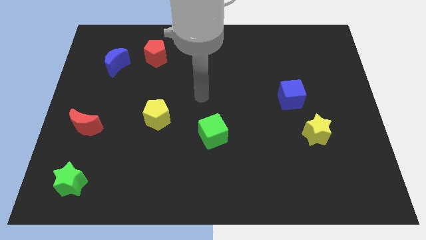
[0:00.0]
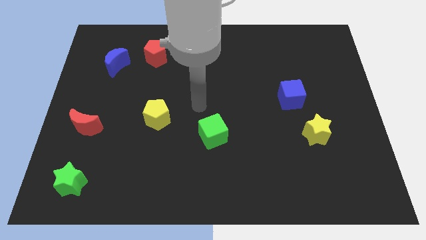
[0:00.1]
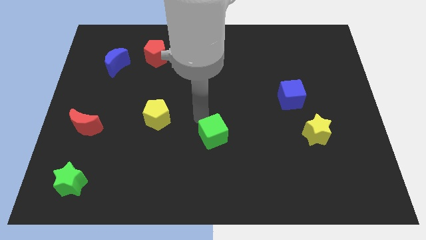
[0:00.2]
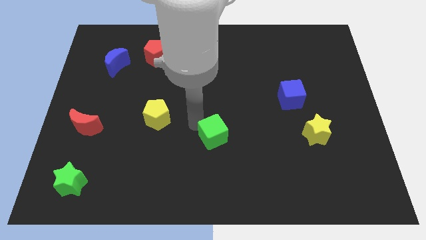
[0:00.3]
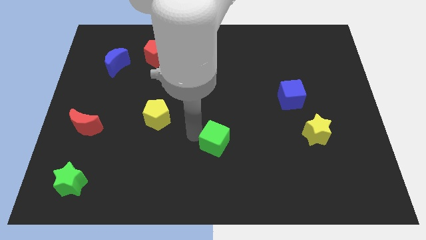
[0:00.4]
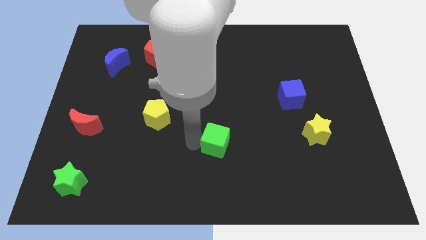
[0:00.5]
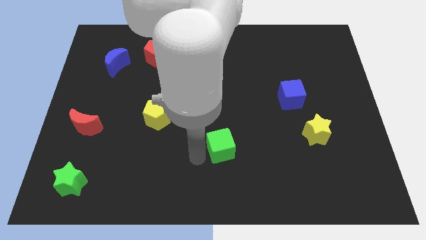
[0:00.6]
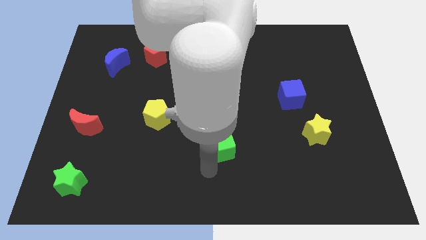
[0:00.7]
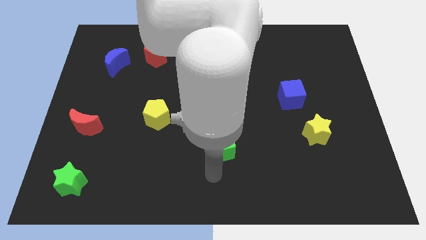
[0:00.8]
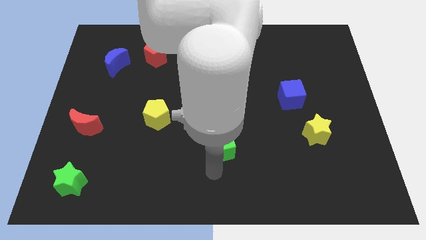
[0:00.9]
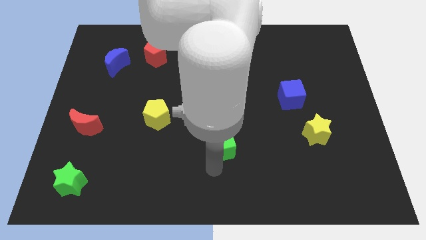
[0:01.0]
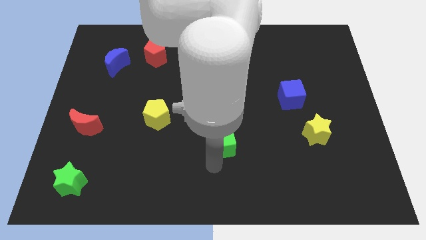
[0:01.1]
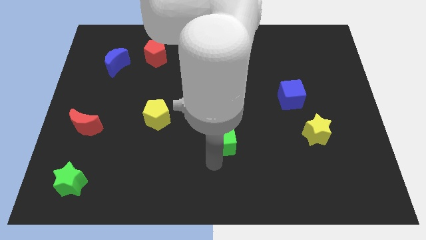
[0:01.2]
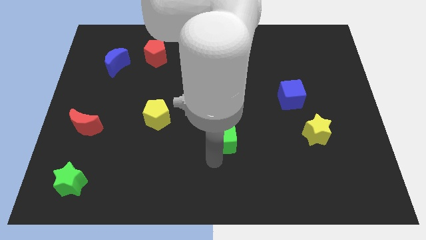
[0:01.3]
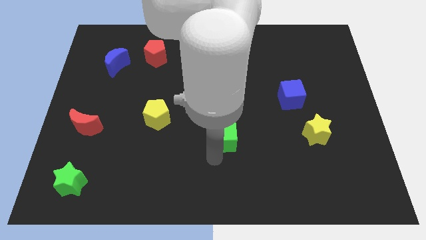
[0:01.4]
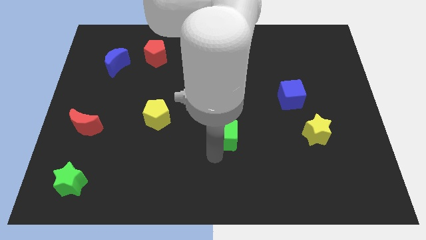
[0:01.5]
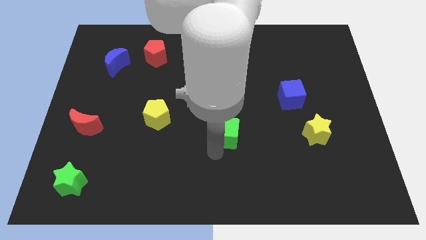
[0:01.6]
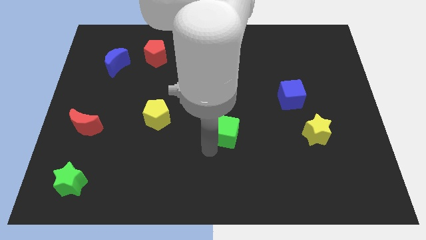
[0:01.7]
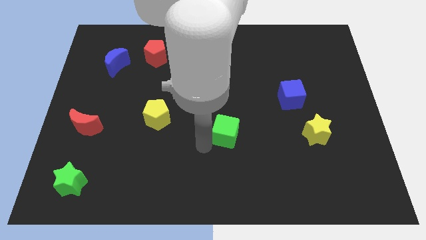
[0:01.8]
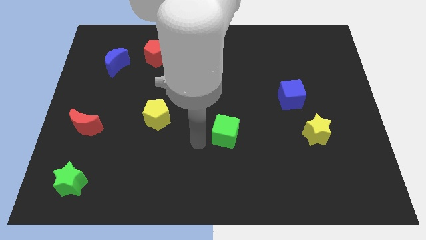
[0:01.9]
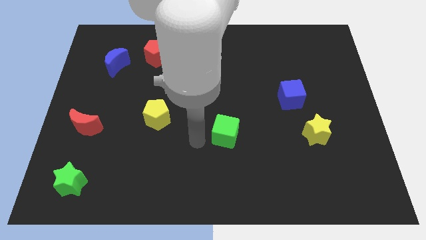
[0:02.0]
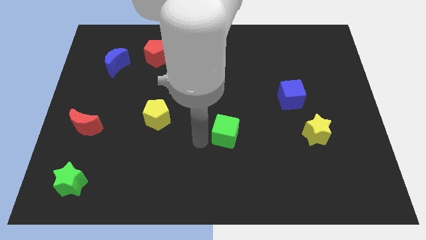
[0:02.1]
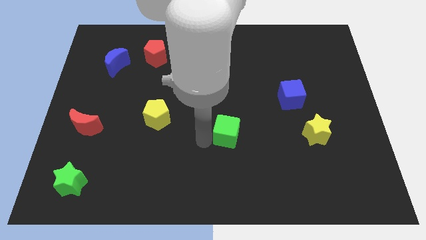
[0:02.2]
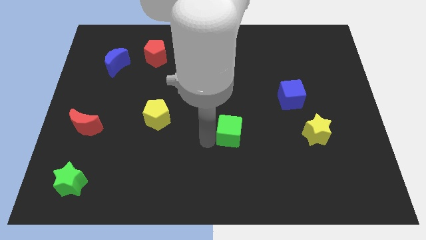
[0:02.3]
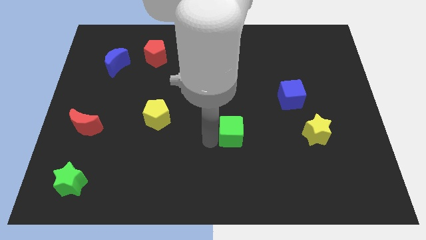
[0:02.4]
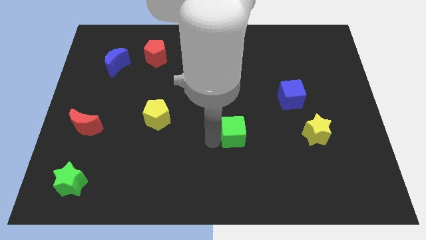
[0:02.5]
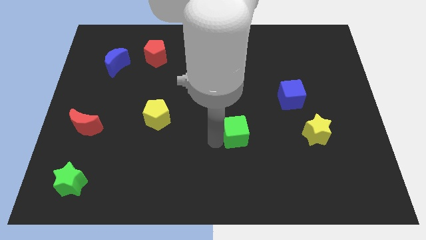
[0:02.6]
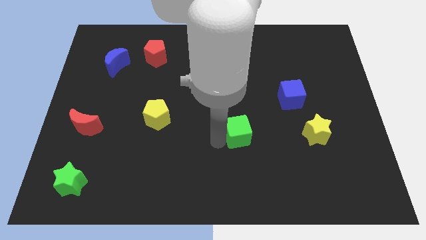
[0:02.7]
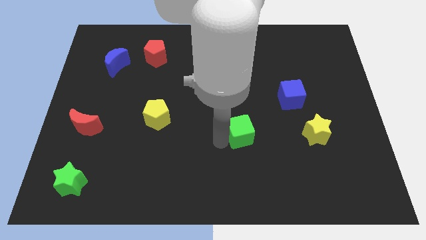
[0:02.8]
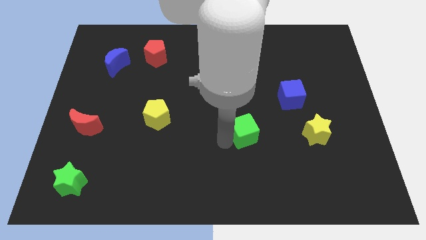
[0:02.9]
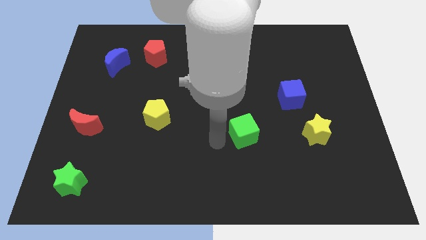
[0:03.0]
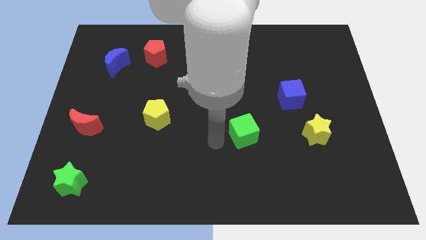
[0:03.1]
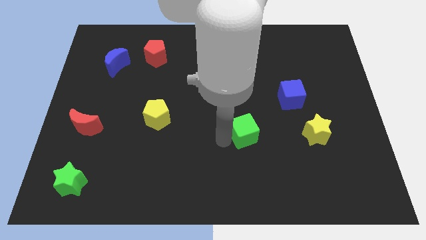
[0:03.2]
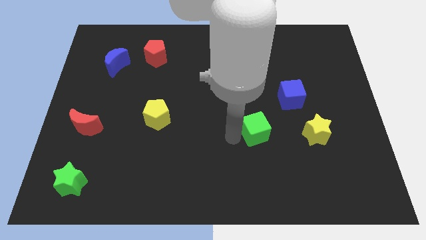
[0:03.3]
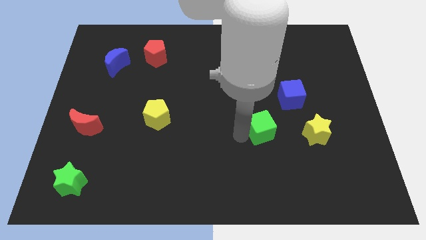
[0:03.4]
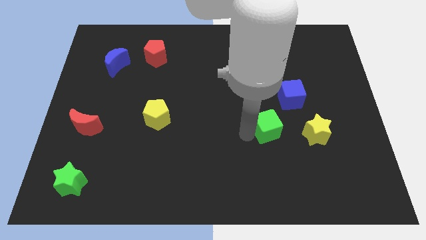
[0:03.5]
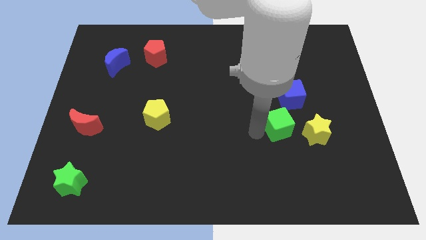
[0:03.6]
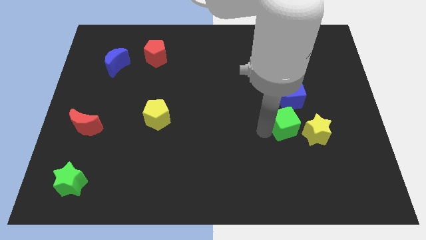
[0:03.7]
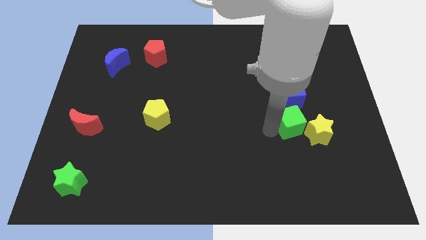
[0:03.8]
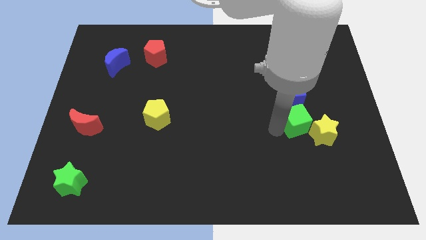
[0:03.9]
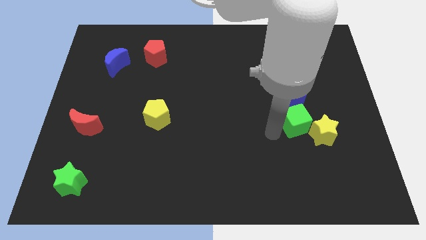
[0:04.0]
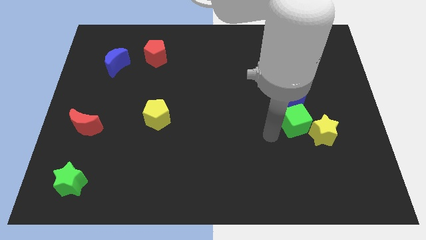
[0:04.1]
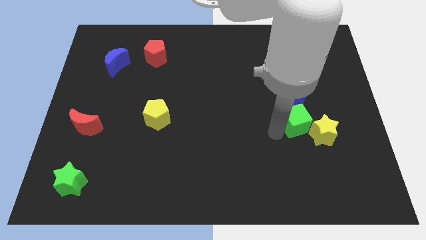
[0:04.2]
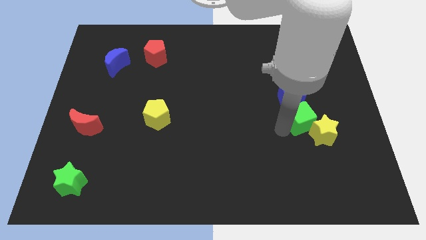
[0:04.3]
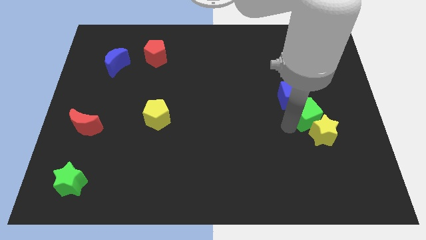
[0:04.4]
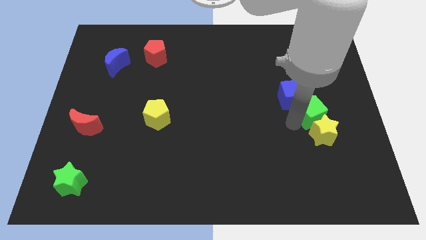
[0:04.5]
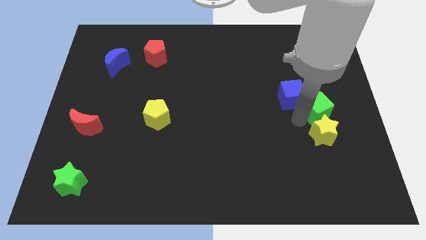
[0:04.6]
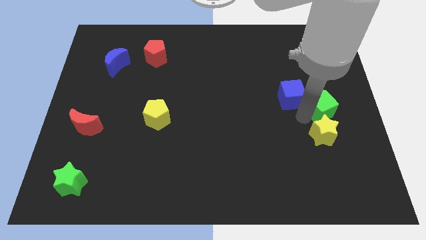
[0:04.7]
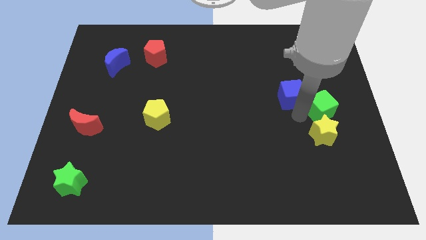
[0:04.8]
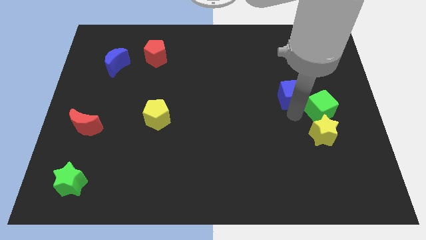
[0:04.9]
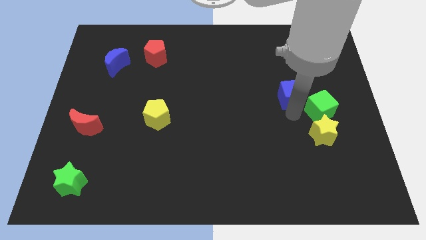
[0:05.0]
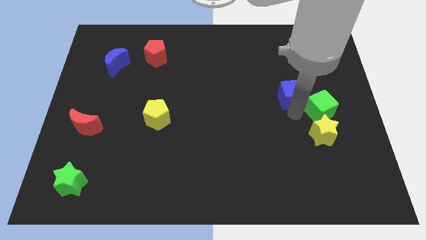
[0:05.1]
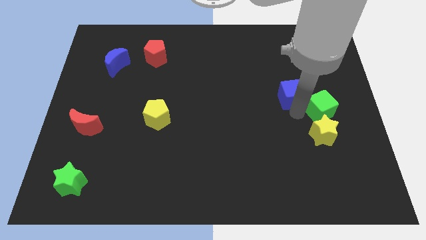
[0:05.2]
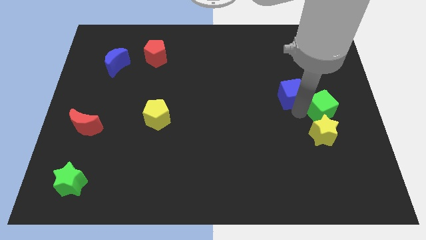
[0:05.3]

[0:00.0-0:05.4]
push the green cube to the right side

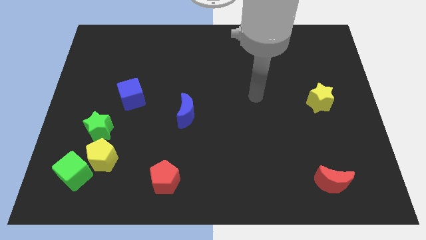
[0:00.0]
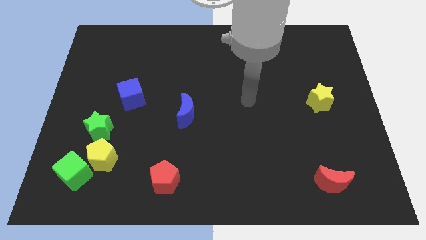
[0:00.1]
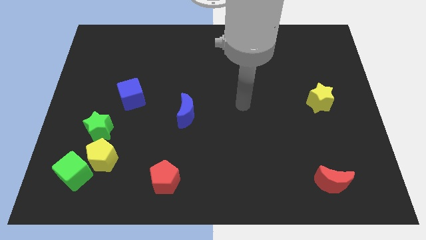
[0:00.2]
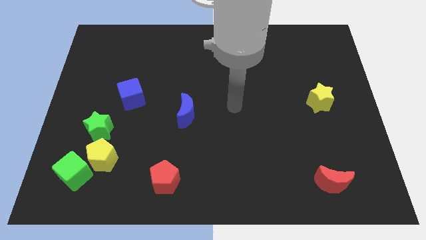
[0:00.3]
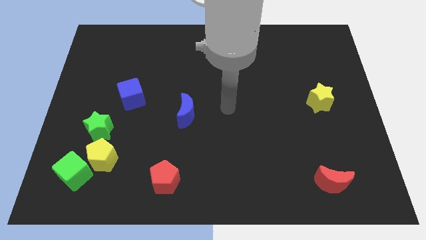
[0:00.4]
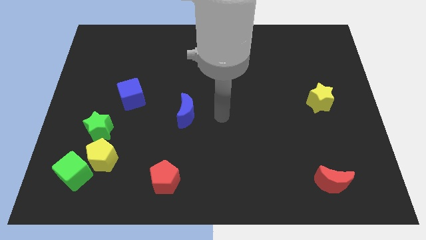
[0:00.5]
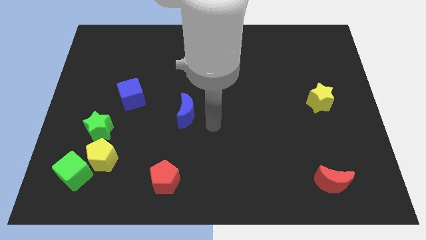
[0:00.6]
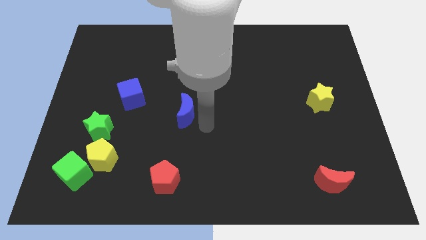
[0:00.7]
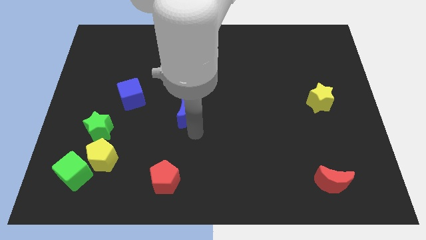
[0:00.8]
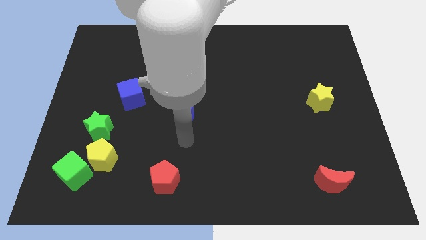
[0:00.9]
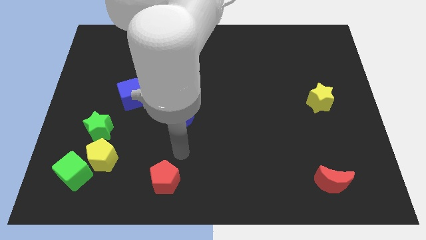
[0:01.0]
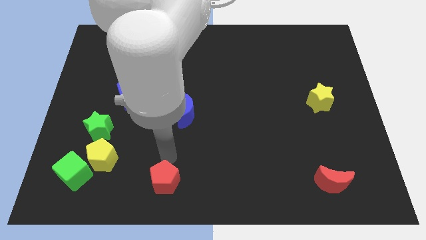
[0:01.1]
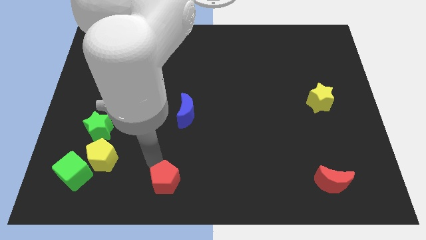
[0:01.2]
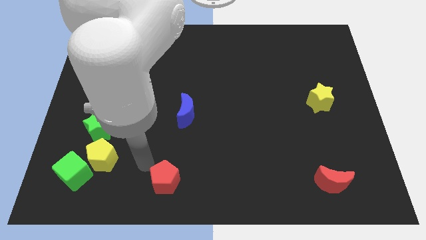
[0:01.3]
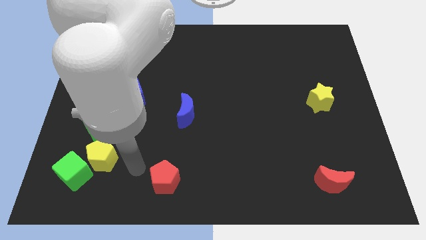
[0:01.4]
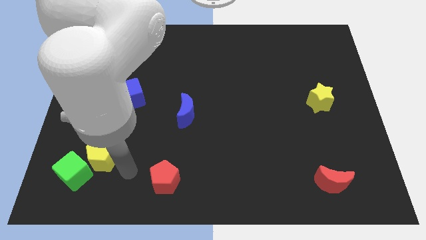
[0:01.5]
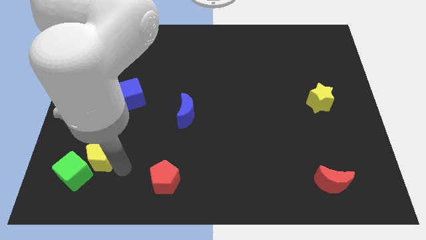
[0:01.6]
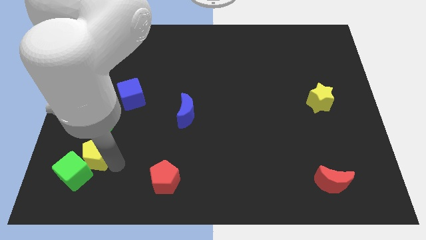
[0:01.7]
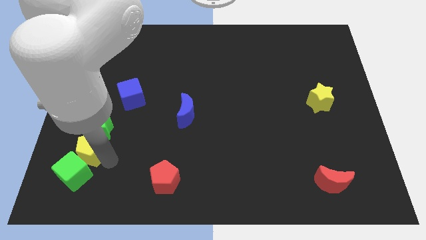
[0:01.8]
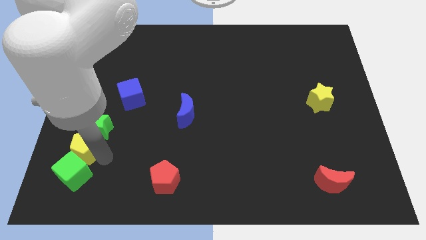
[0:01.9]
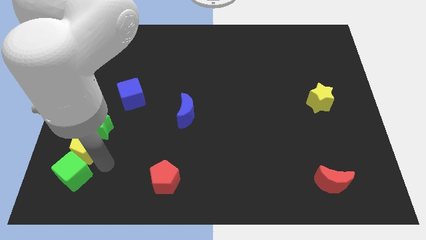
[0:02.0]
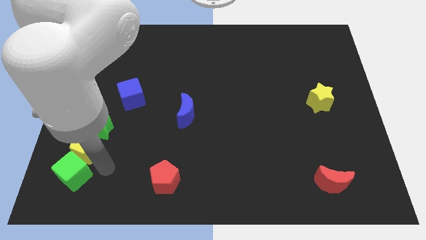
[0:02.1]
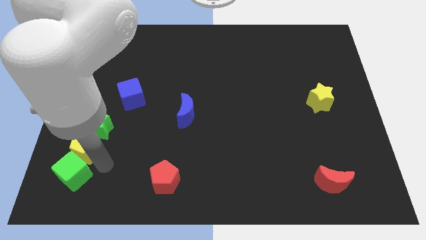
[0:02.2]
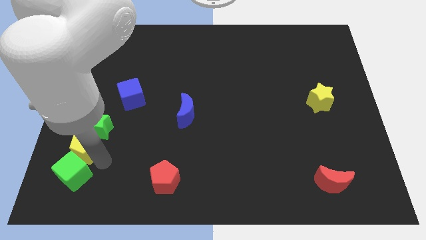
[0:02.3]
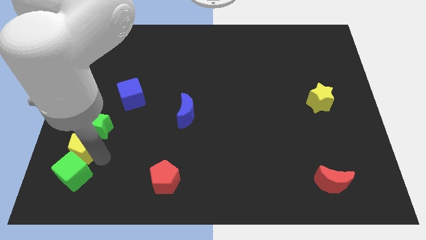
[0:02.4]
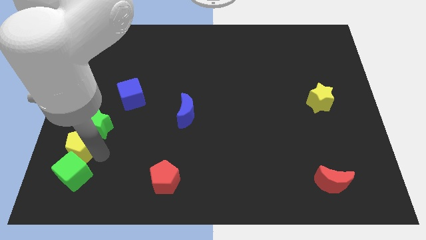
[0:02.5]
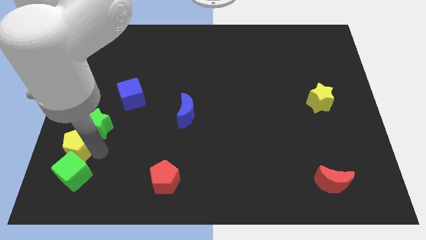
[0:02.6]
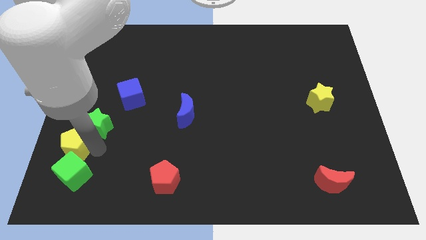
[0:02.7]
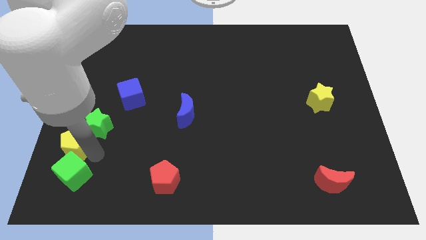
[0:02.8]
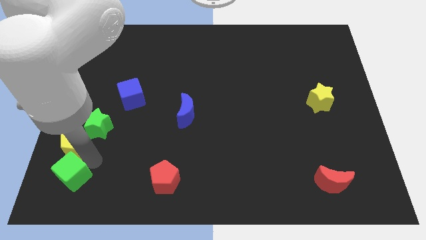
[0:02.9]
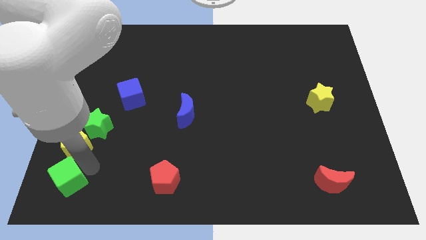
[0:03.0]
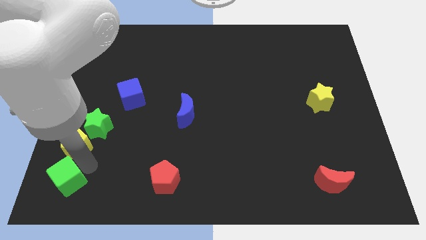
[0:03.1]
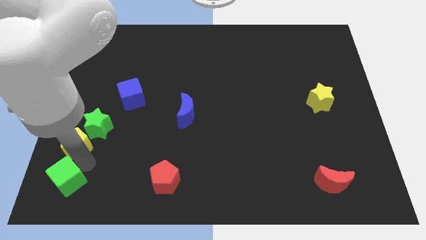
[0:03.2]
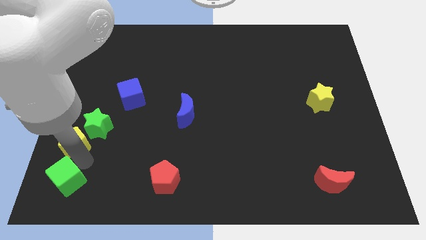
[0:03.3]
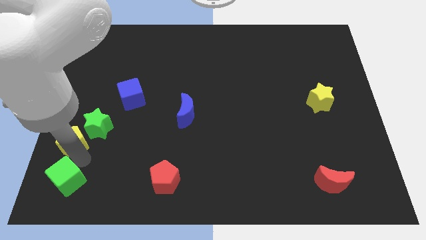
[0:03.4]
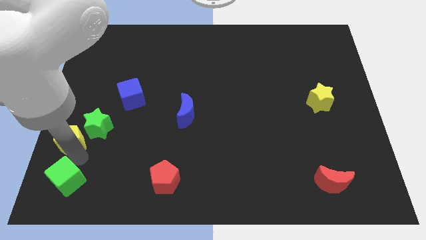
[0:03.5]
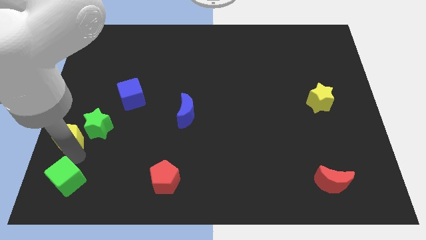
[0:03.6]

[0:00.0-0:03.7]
slide the yellow pentagon to the left side
